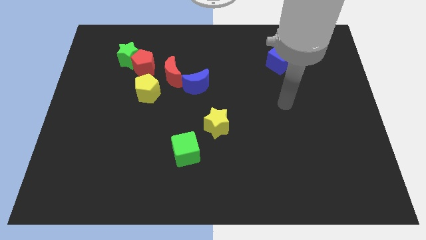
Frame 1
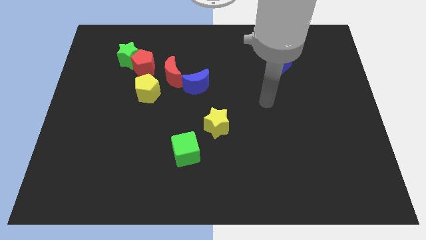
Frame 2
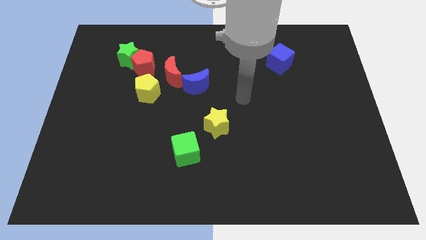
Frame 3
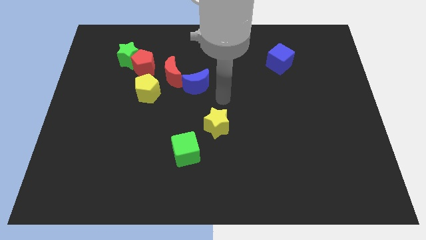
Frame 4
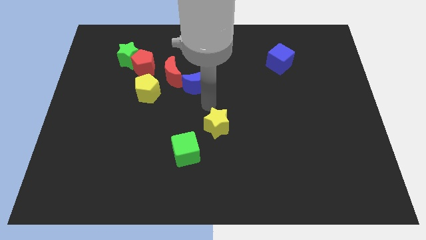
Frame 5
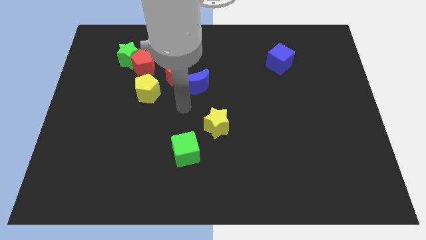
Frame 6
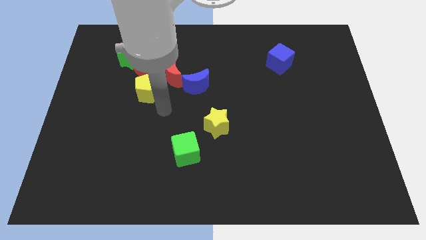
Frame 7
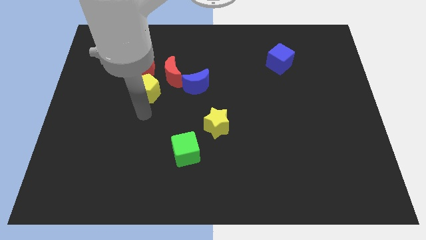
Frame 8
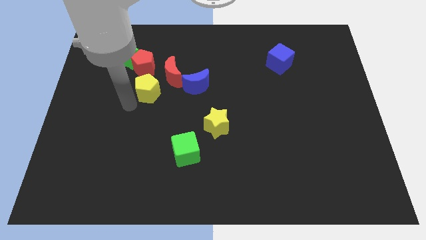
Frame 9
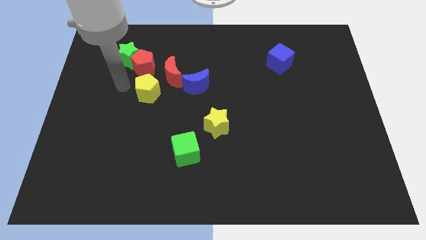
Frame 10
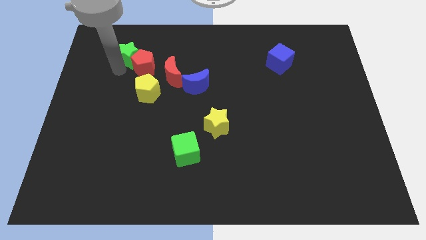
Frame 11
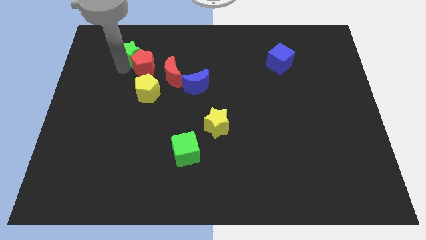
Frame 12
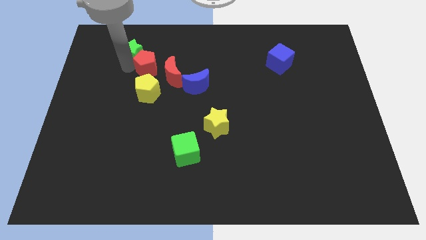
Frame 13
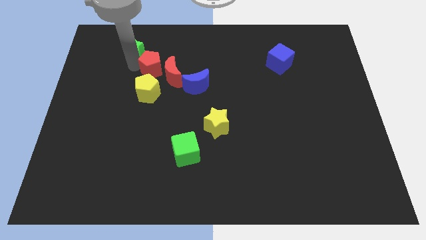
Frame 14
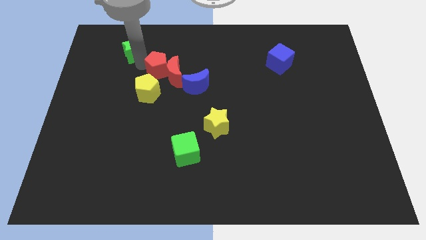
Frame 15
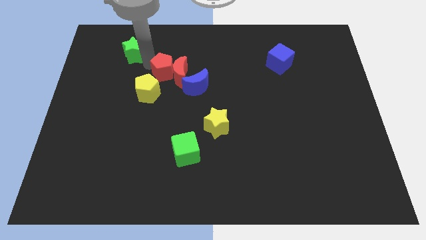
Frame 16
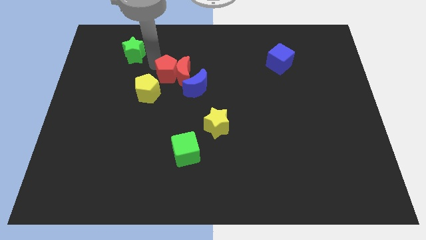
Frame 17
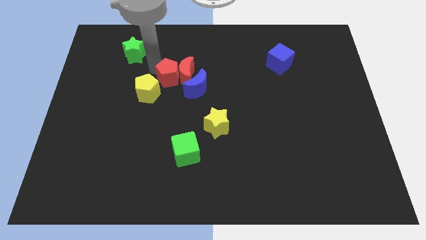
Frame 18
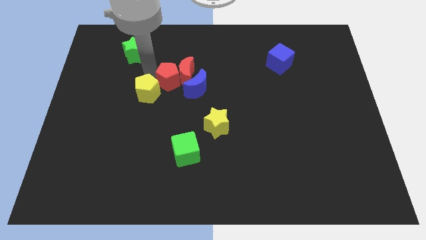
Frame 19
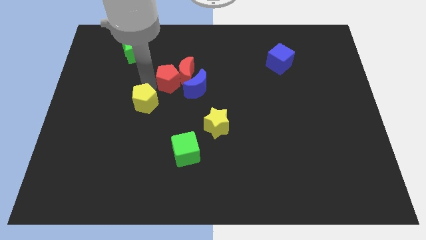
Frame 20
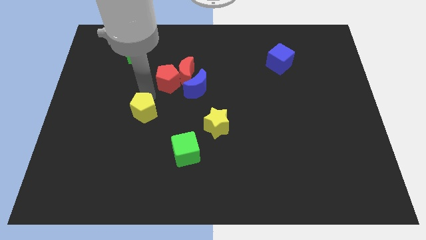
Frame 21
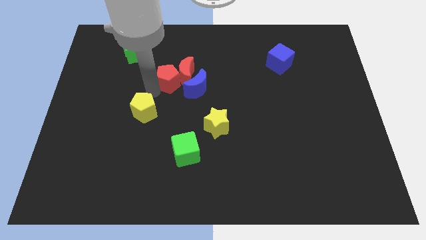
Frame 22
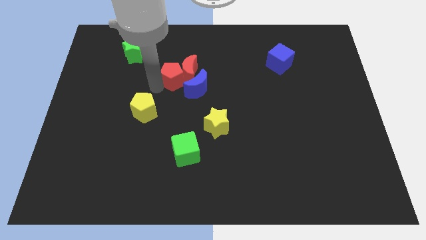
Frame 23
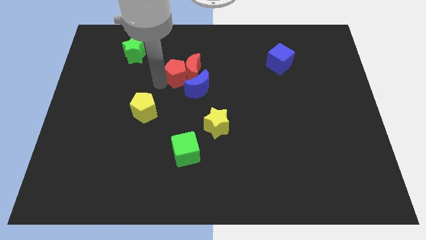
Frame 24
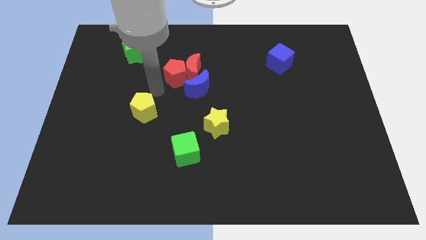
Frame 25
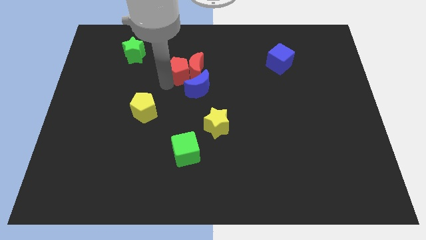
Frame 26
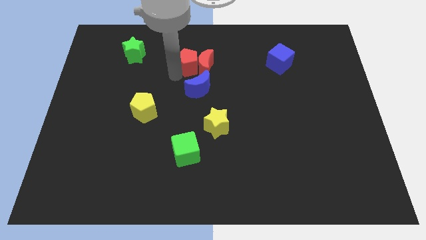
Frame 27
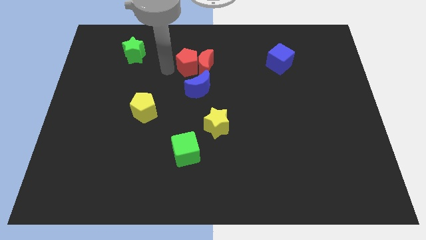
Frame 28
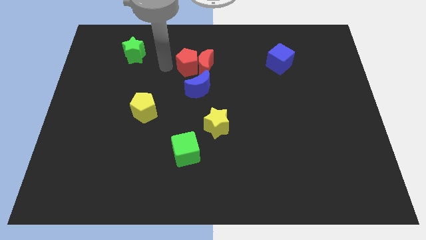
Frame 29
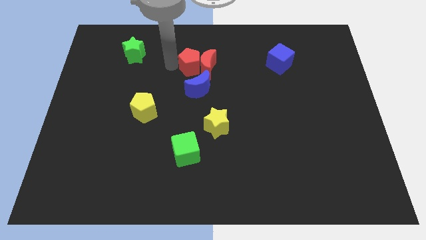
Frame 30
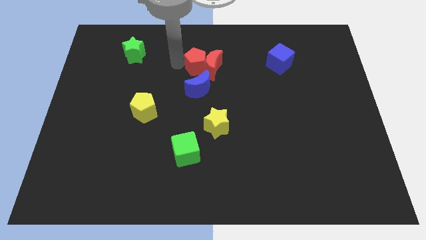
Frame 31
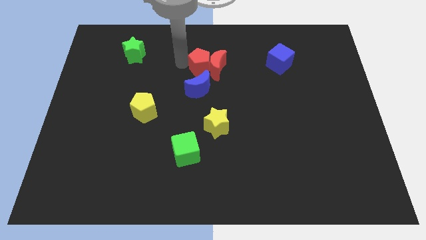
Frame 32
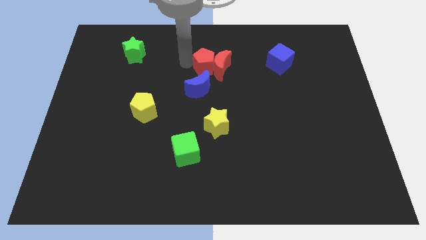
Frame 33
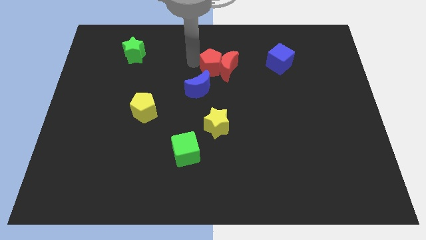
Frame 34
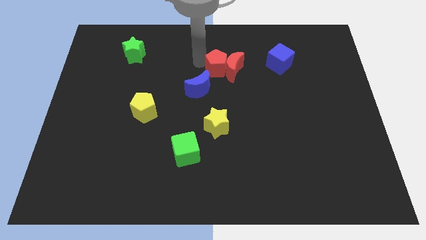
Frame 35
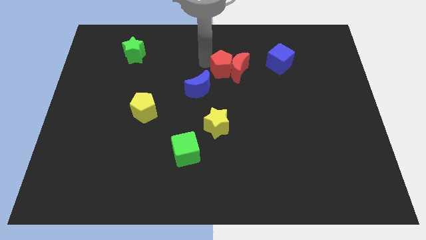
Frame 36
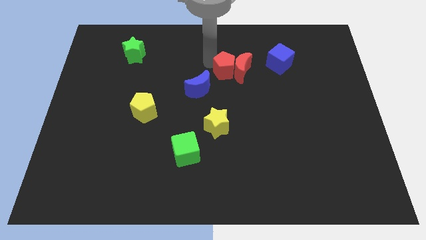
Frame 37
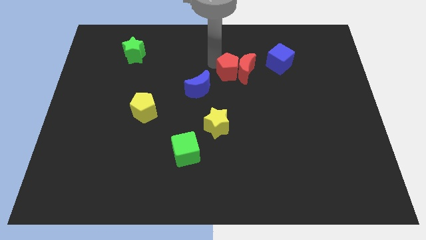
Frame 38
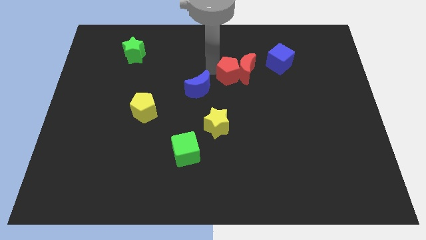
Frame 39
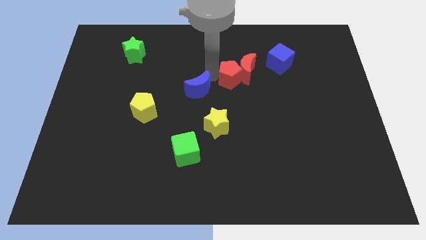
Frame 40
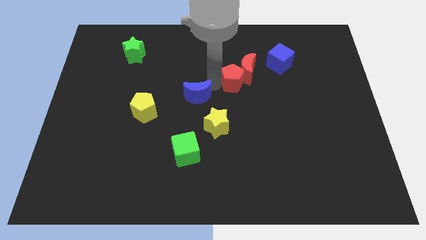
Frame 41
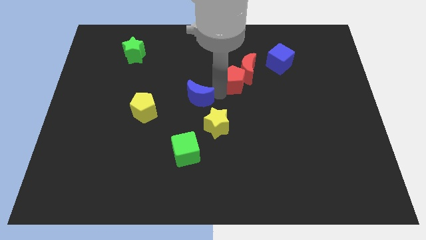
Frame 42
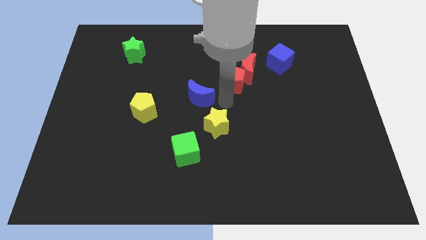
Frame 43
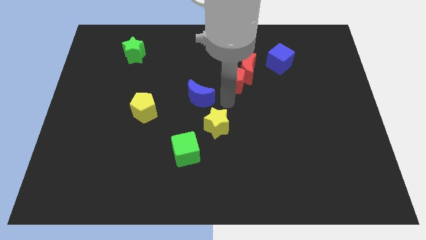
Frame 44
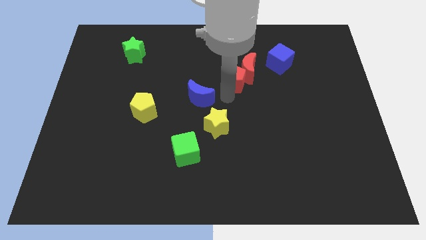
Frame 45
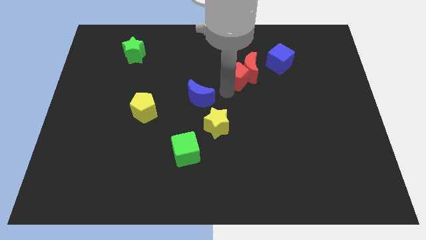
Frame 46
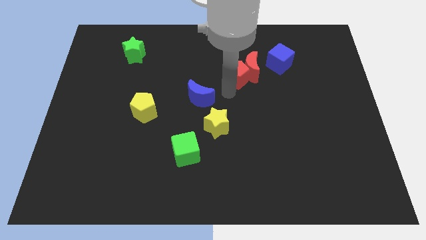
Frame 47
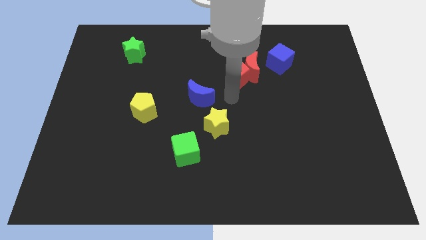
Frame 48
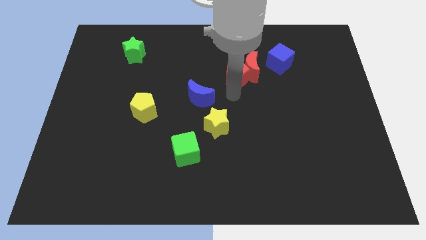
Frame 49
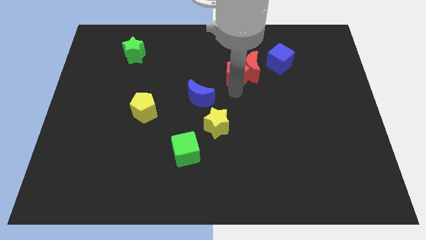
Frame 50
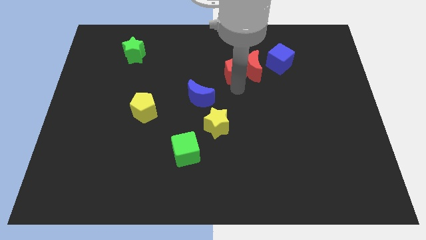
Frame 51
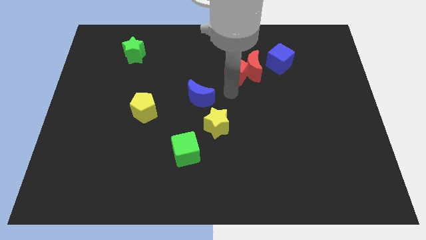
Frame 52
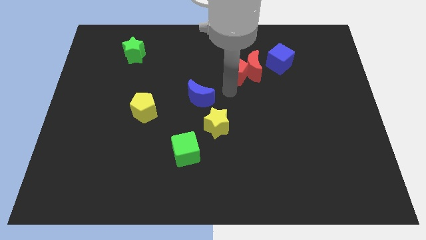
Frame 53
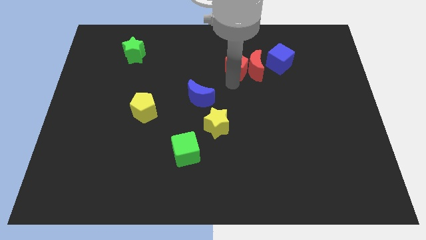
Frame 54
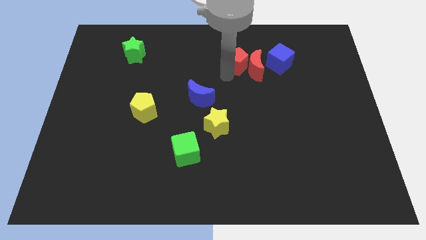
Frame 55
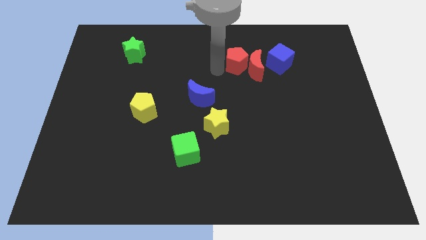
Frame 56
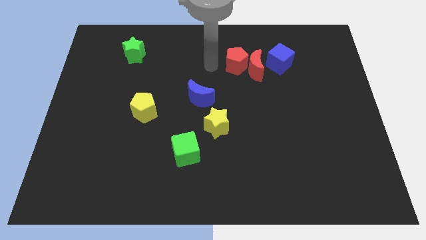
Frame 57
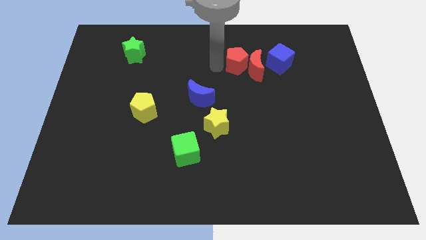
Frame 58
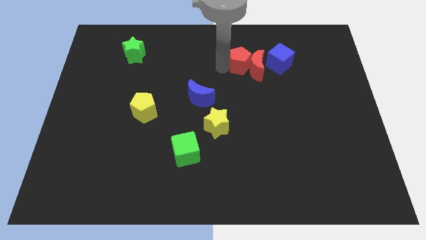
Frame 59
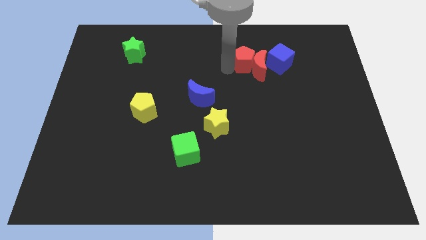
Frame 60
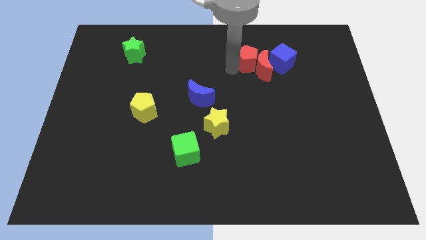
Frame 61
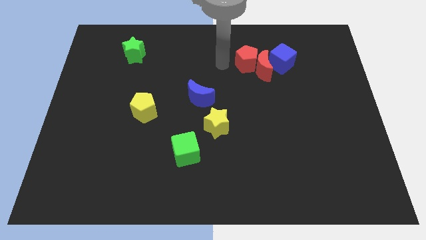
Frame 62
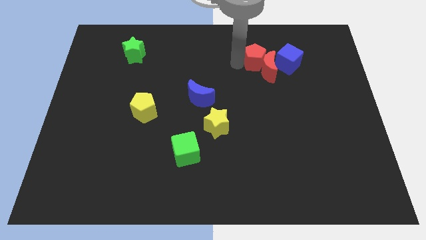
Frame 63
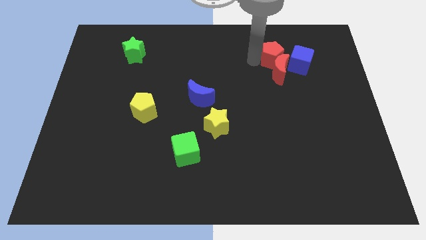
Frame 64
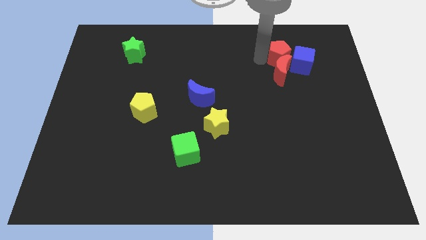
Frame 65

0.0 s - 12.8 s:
put the red pentagon close to the blue cube

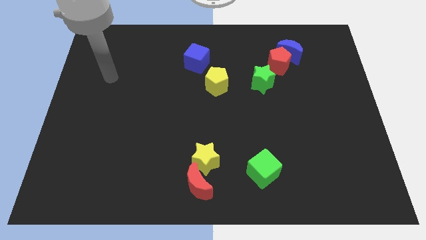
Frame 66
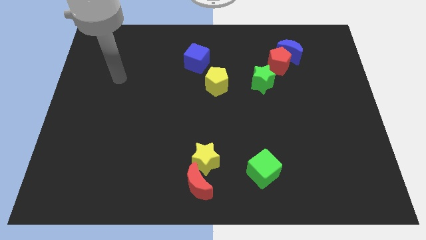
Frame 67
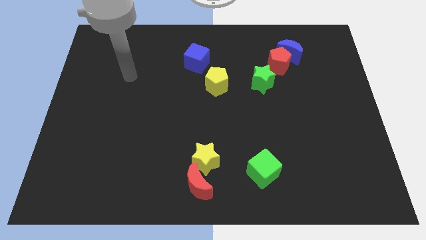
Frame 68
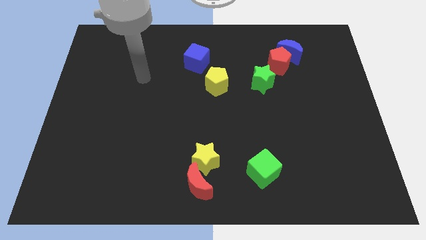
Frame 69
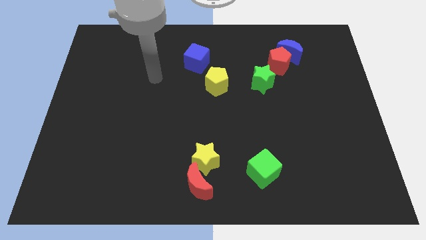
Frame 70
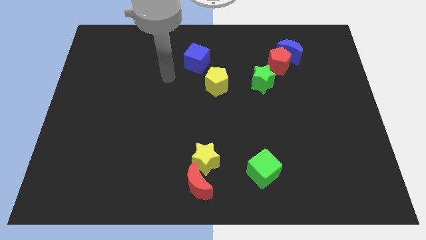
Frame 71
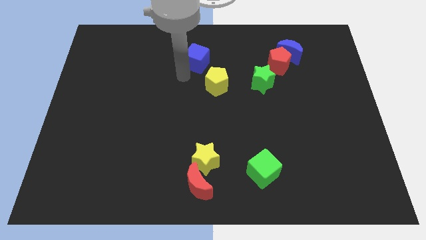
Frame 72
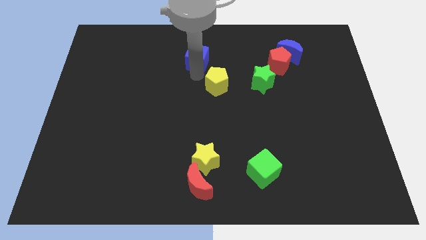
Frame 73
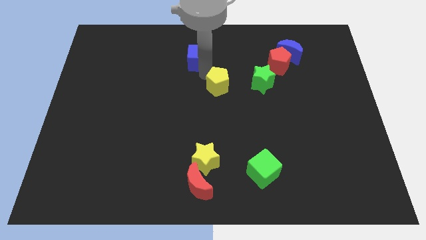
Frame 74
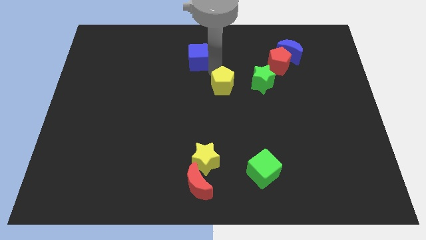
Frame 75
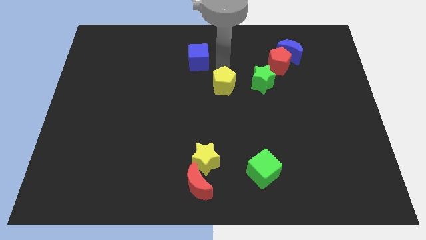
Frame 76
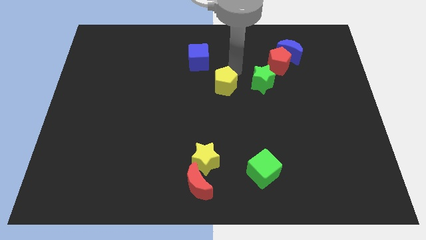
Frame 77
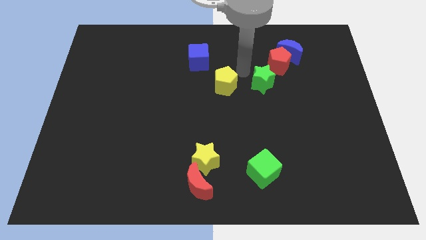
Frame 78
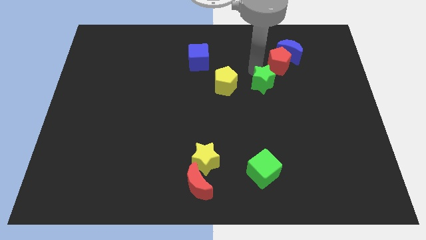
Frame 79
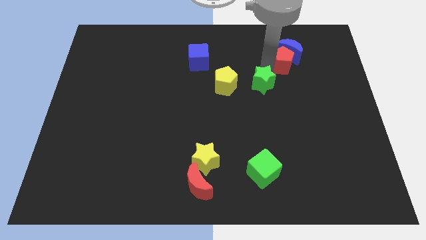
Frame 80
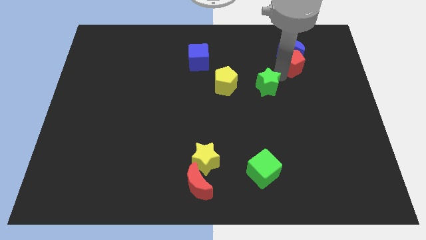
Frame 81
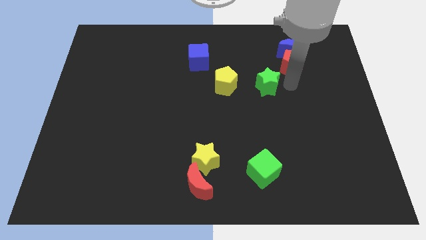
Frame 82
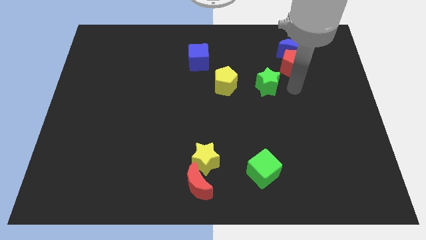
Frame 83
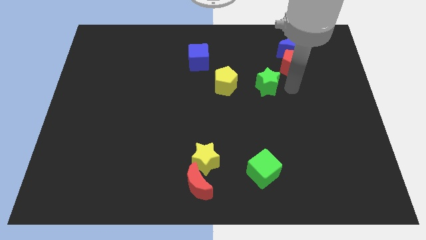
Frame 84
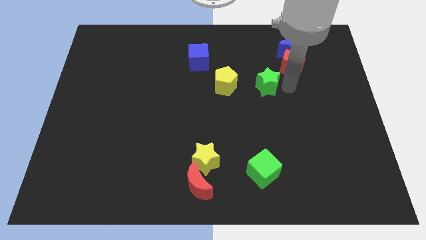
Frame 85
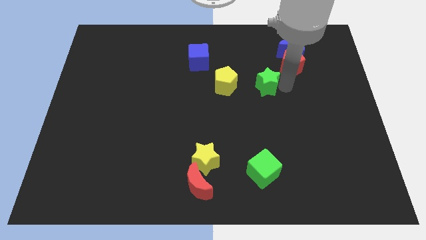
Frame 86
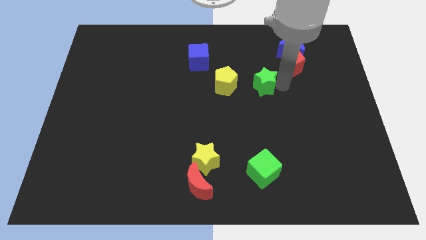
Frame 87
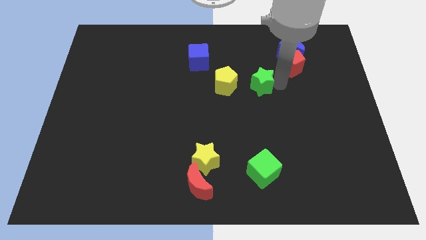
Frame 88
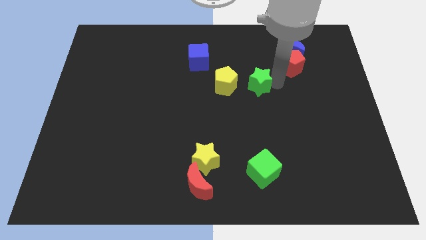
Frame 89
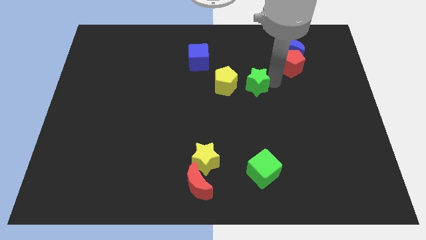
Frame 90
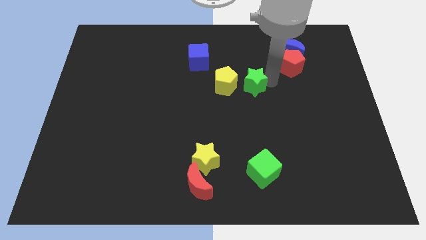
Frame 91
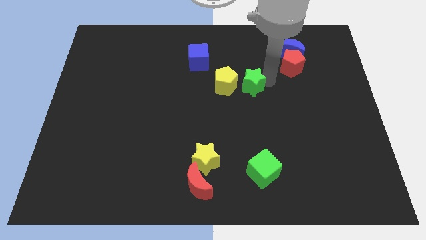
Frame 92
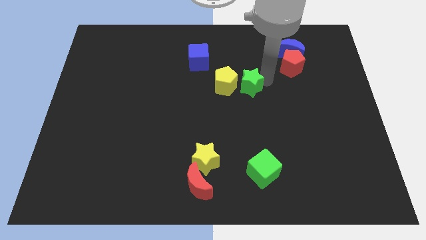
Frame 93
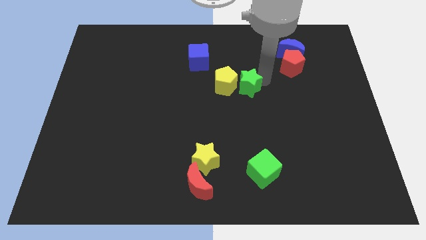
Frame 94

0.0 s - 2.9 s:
slide the green star close to the yellow pentagon
